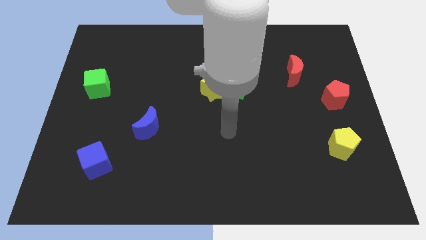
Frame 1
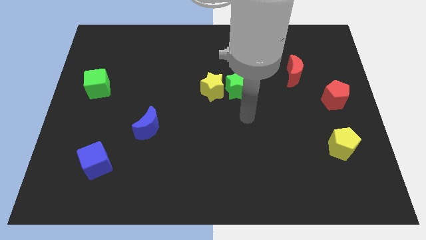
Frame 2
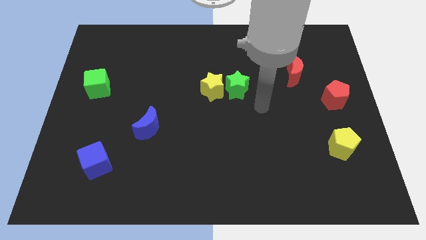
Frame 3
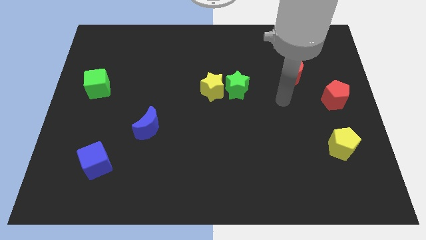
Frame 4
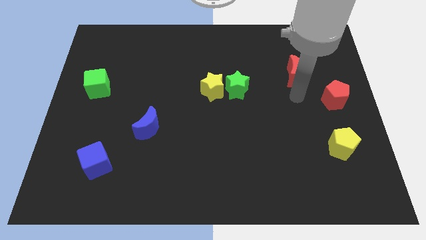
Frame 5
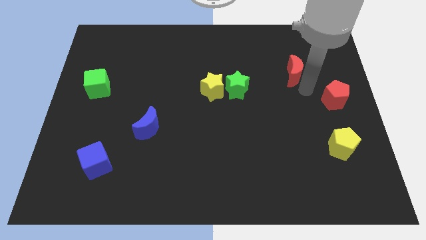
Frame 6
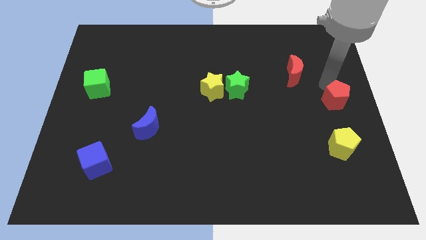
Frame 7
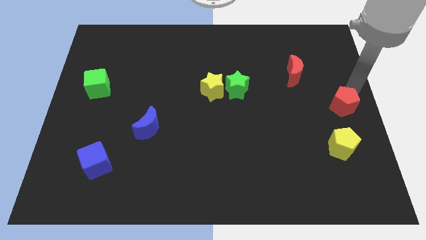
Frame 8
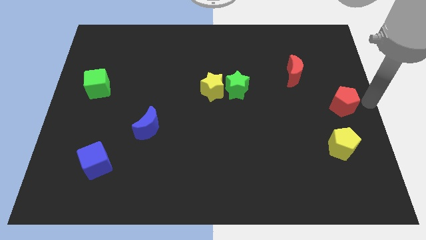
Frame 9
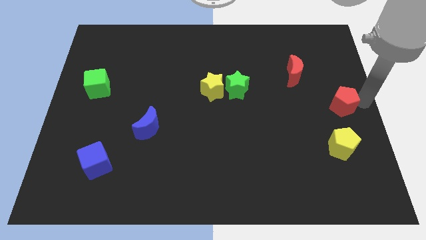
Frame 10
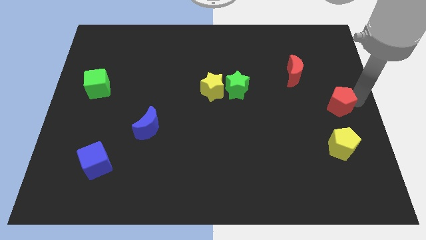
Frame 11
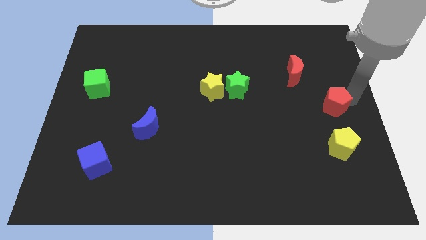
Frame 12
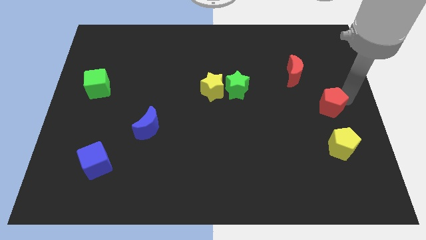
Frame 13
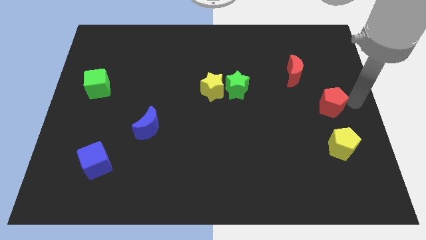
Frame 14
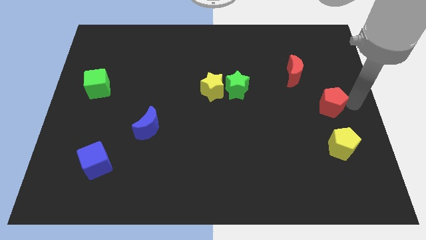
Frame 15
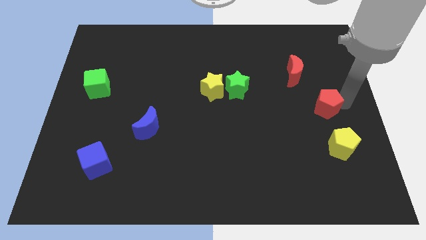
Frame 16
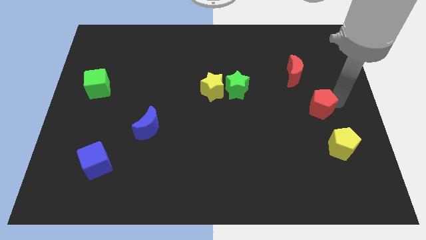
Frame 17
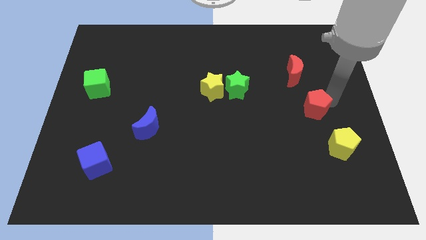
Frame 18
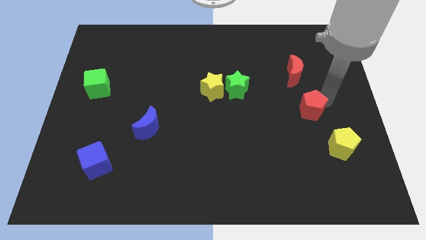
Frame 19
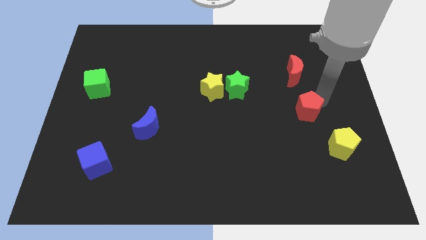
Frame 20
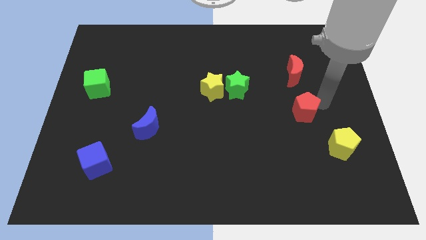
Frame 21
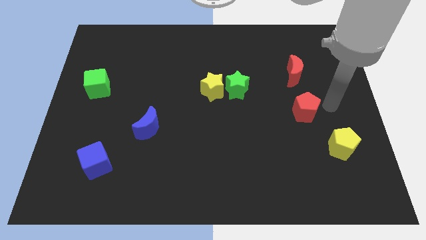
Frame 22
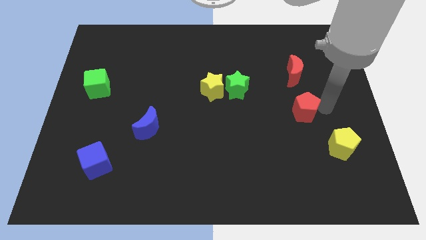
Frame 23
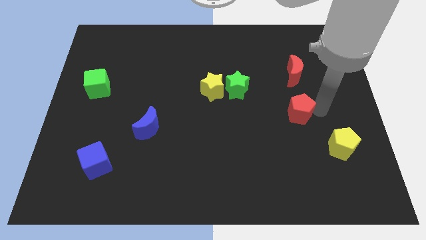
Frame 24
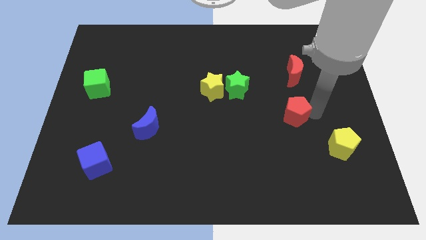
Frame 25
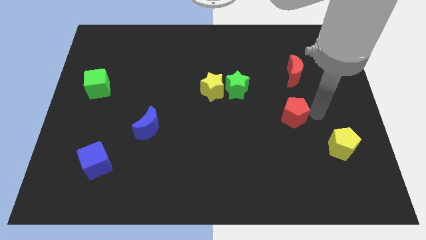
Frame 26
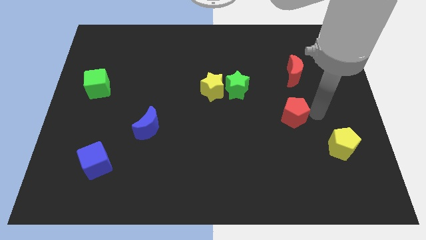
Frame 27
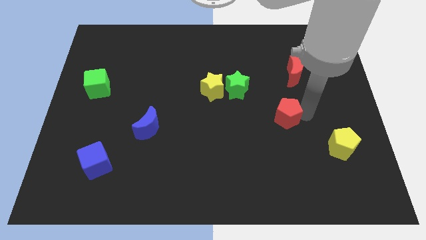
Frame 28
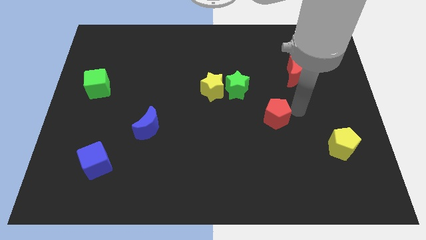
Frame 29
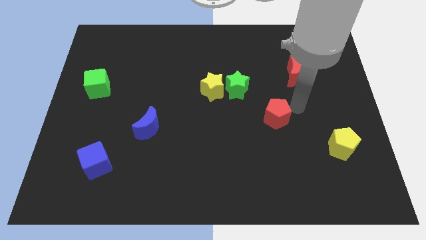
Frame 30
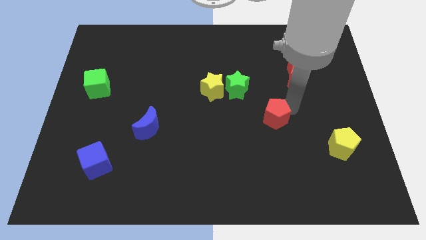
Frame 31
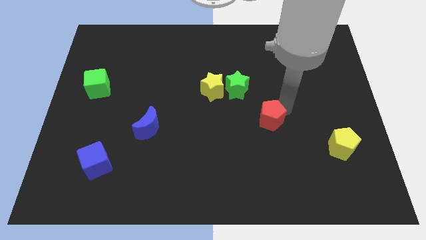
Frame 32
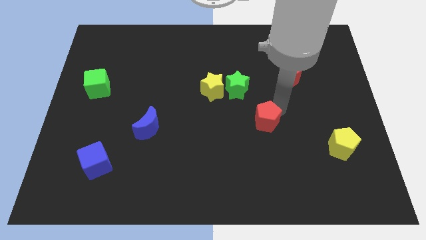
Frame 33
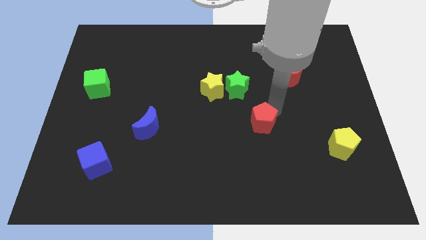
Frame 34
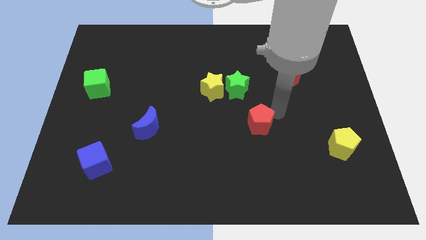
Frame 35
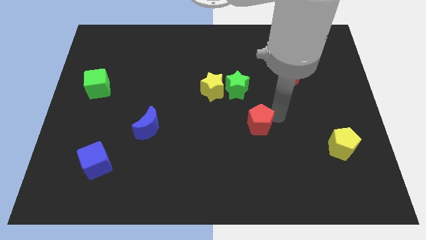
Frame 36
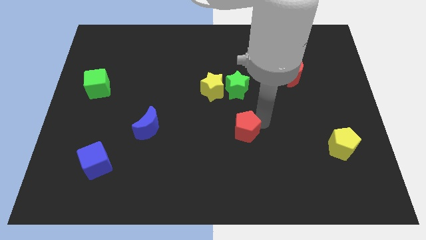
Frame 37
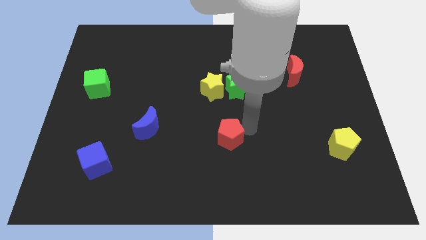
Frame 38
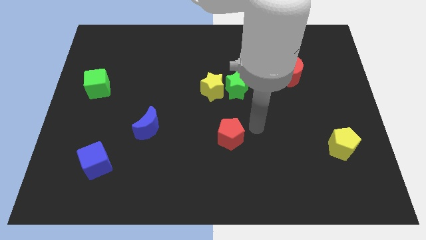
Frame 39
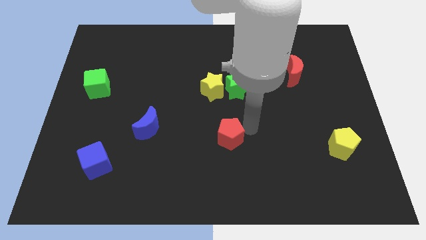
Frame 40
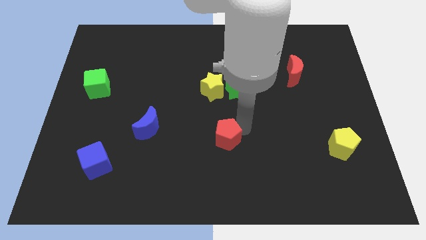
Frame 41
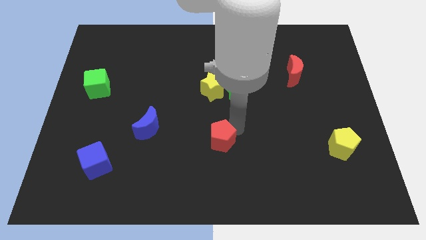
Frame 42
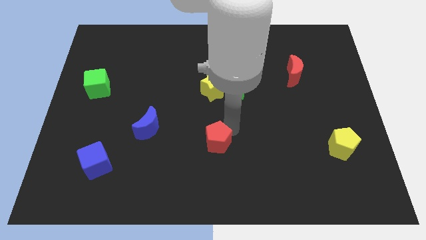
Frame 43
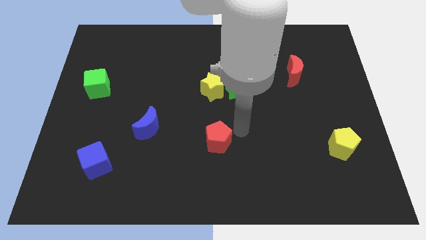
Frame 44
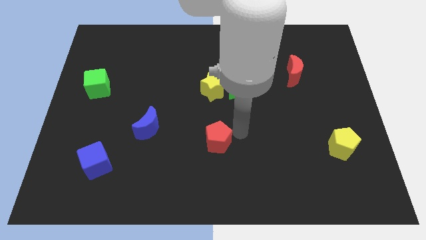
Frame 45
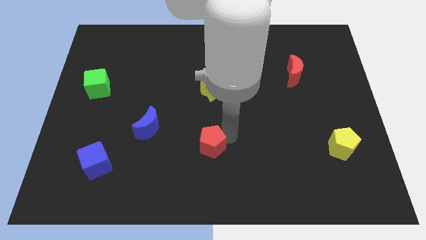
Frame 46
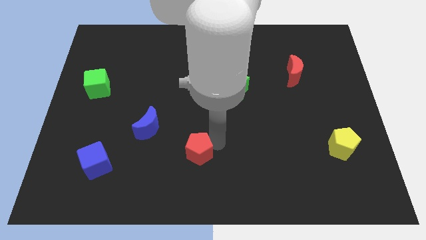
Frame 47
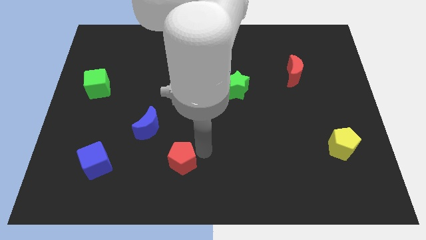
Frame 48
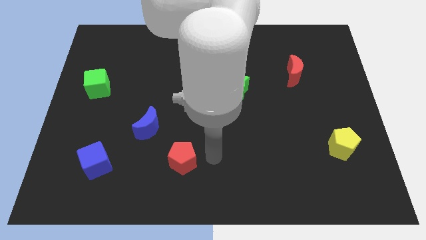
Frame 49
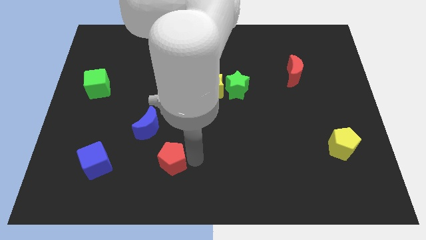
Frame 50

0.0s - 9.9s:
slide the red pentagon right of the blue cube
